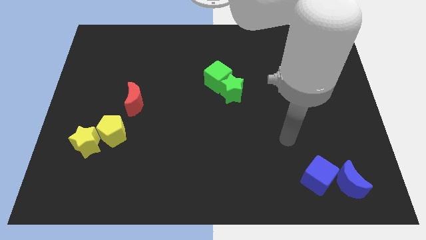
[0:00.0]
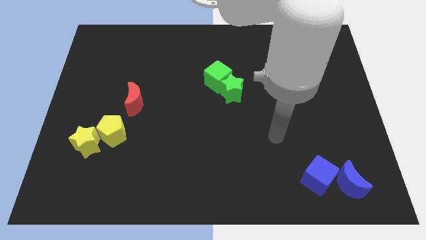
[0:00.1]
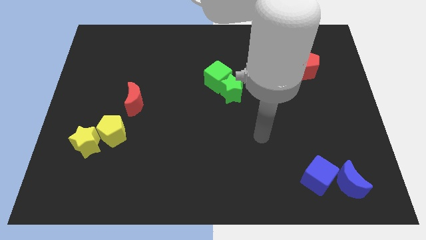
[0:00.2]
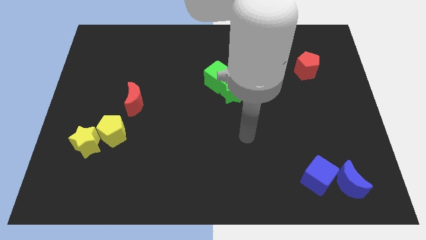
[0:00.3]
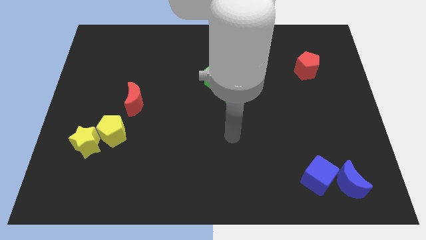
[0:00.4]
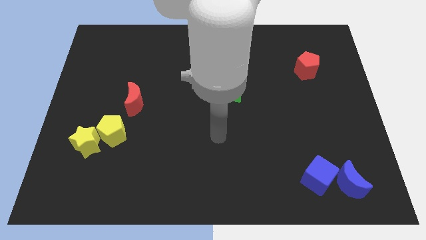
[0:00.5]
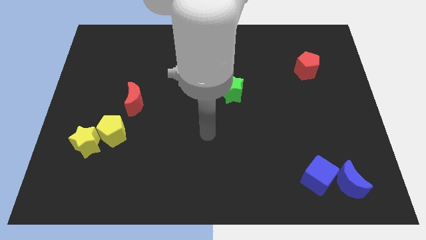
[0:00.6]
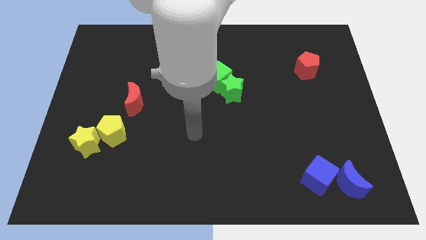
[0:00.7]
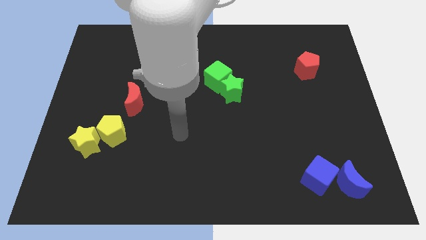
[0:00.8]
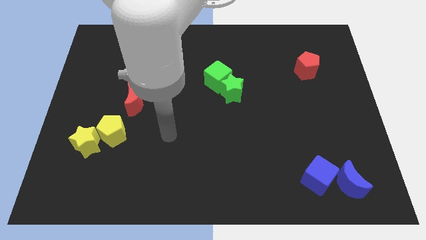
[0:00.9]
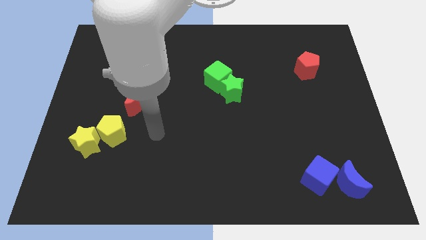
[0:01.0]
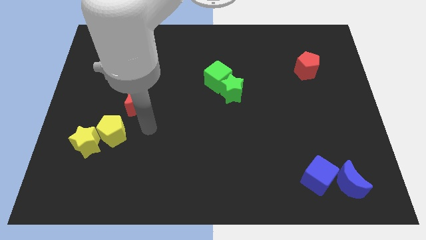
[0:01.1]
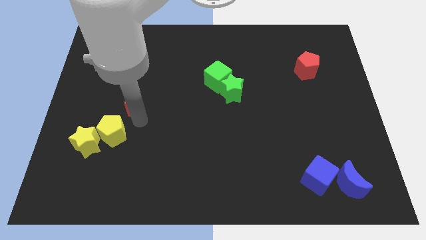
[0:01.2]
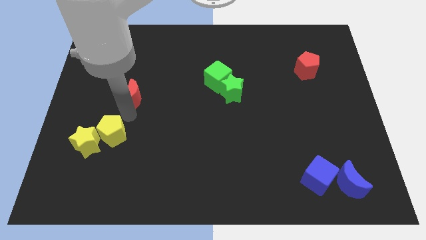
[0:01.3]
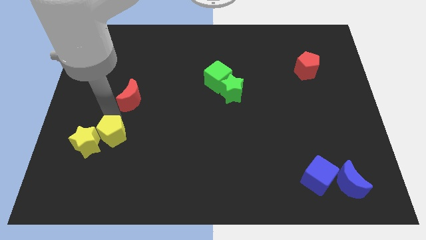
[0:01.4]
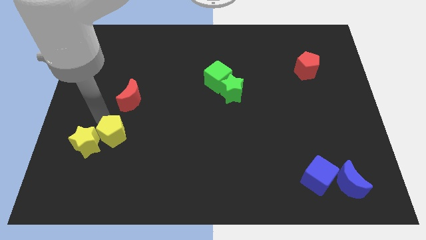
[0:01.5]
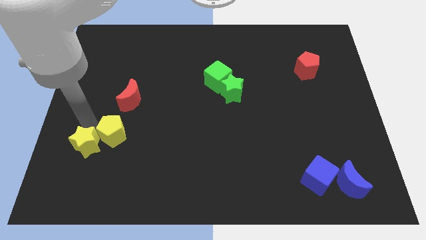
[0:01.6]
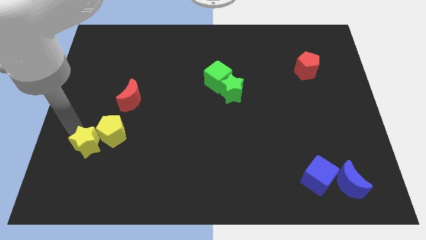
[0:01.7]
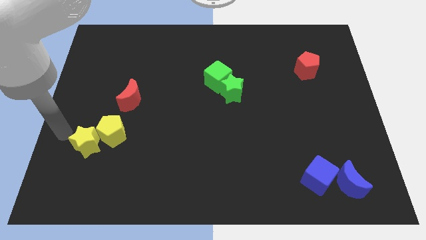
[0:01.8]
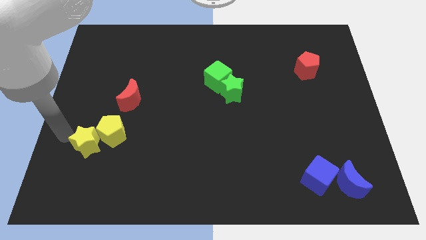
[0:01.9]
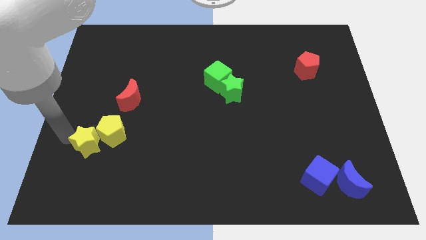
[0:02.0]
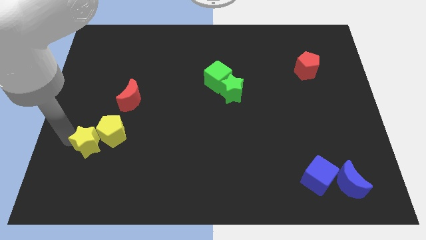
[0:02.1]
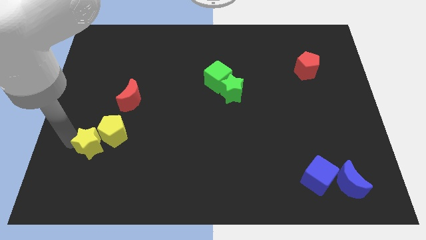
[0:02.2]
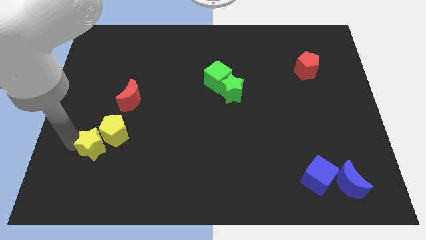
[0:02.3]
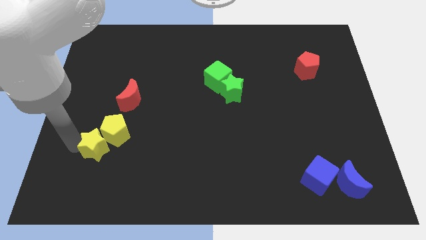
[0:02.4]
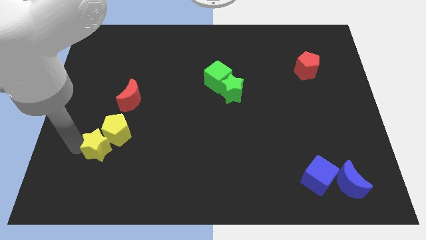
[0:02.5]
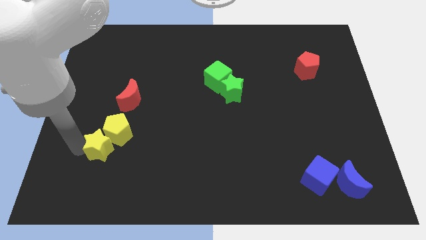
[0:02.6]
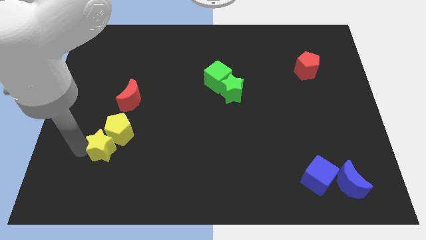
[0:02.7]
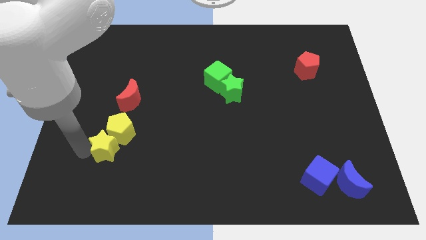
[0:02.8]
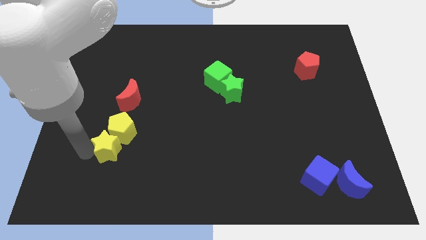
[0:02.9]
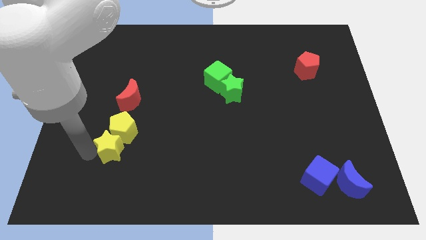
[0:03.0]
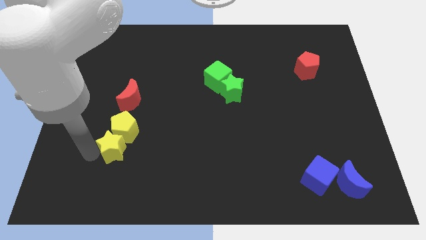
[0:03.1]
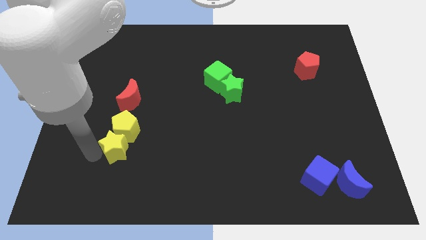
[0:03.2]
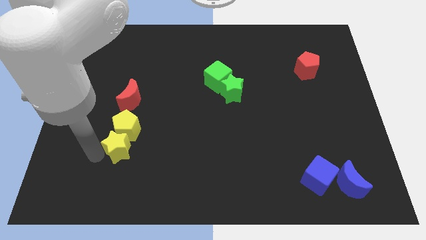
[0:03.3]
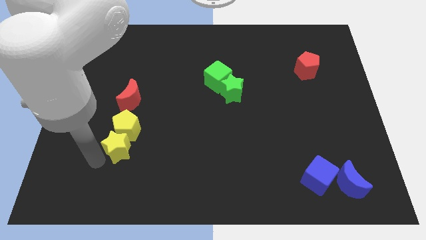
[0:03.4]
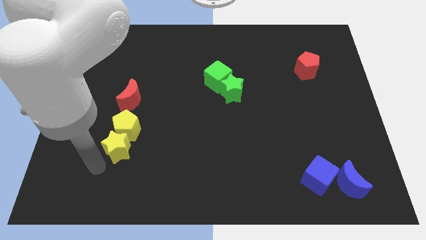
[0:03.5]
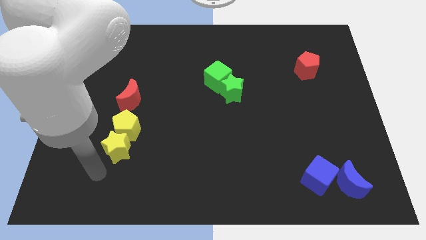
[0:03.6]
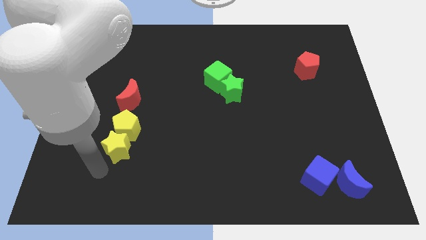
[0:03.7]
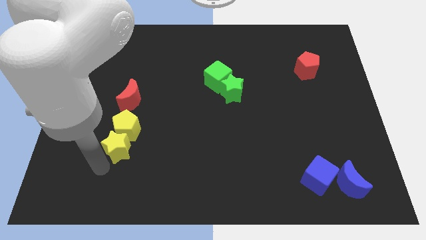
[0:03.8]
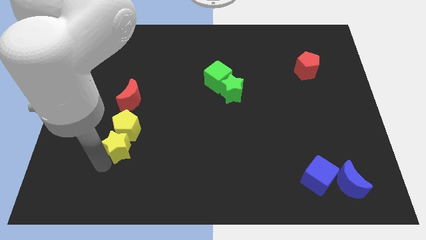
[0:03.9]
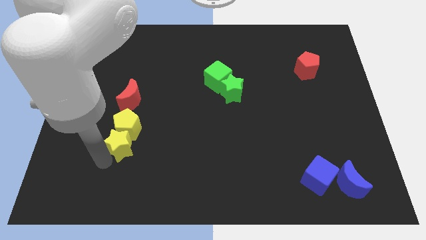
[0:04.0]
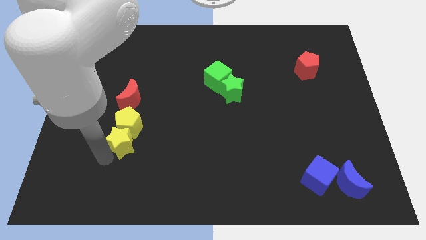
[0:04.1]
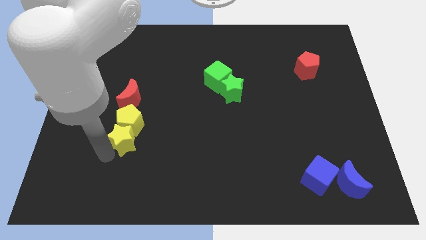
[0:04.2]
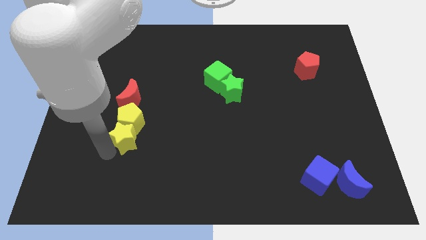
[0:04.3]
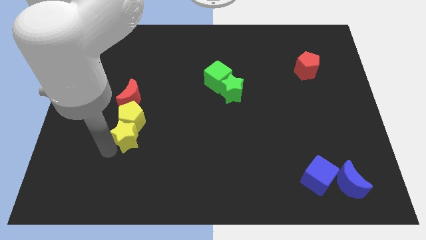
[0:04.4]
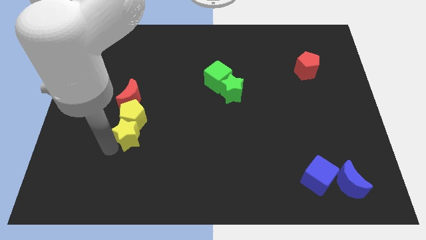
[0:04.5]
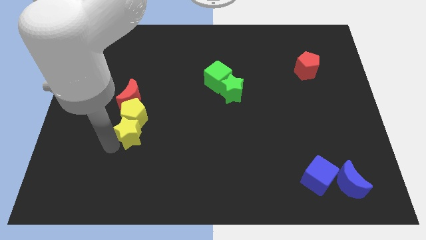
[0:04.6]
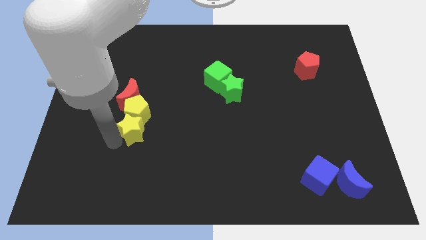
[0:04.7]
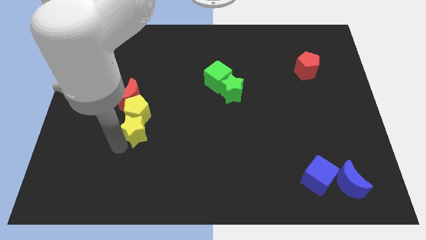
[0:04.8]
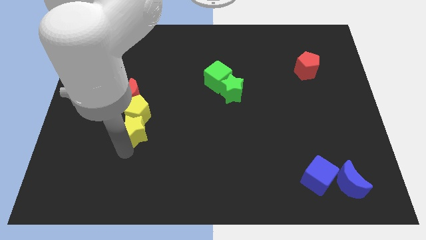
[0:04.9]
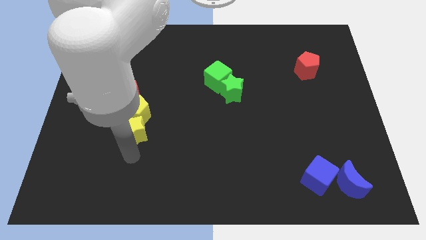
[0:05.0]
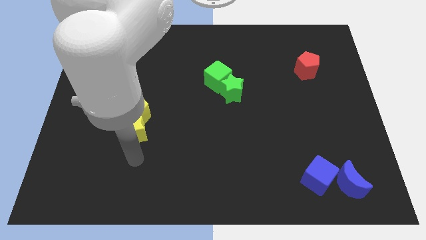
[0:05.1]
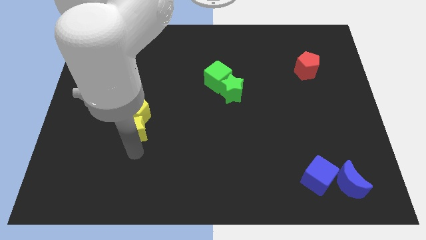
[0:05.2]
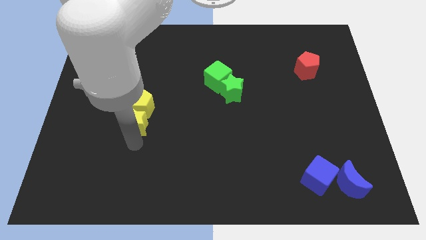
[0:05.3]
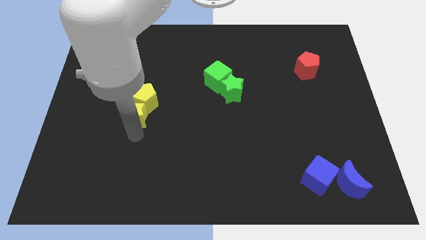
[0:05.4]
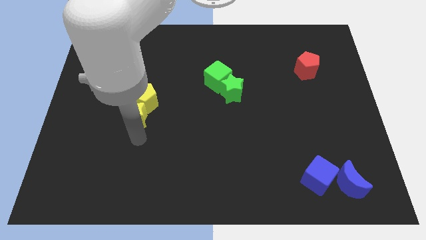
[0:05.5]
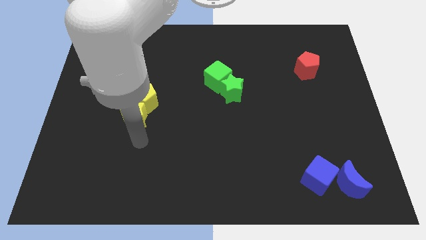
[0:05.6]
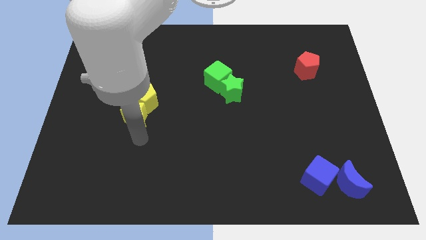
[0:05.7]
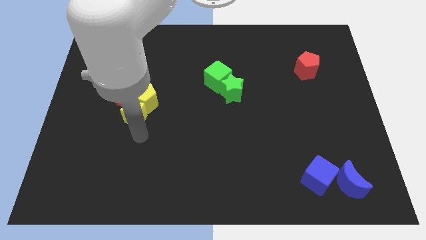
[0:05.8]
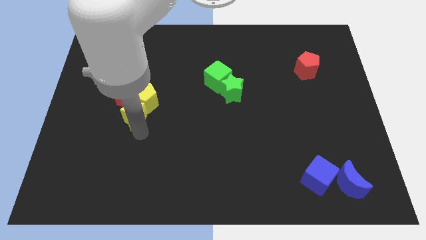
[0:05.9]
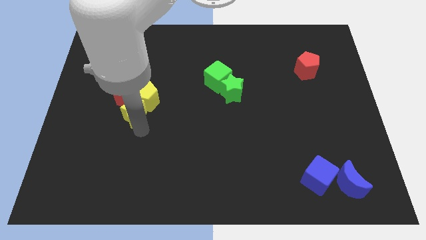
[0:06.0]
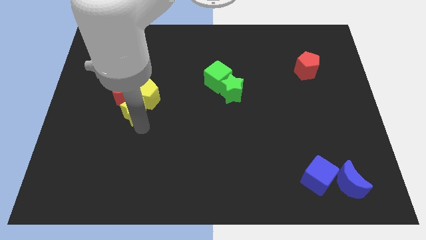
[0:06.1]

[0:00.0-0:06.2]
slide the yellow star to the red moon

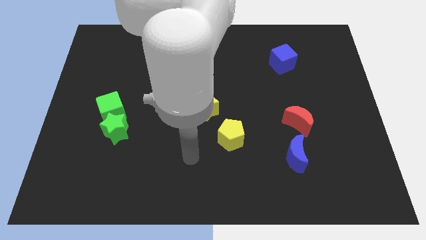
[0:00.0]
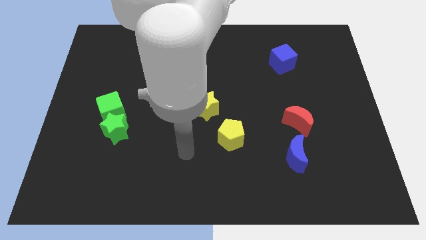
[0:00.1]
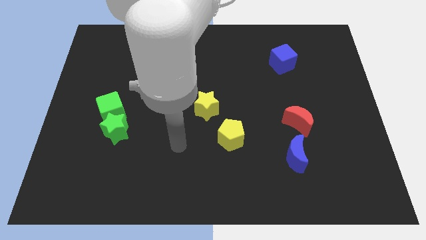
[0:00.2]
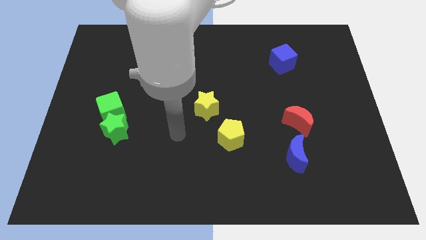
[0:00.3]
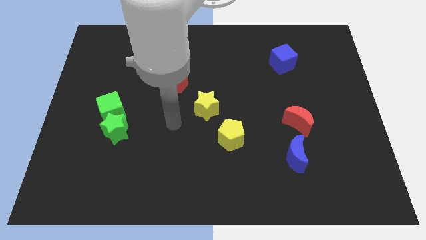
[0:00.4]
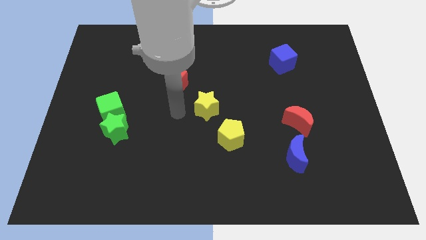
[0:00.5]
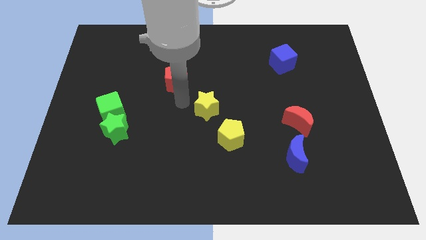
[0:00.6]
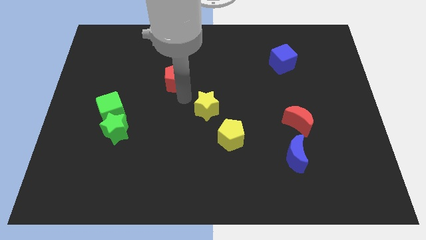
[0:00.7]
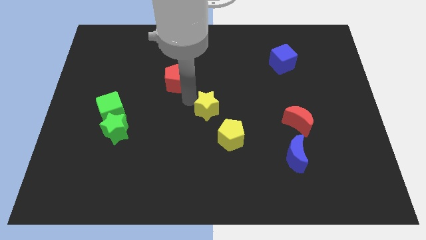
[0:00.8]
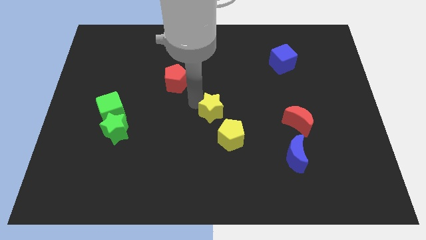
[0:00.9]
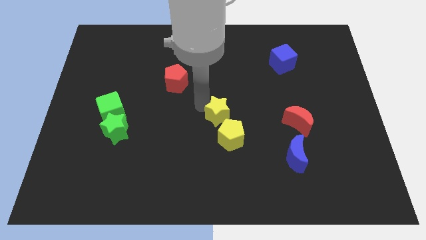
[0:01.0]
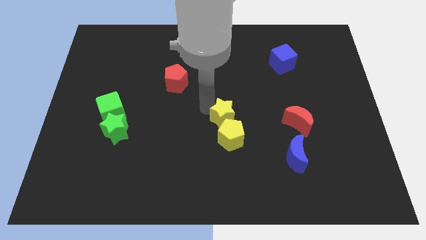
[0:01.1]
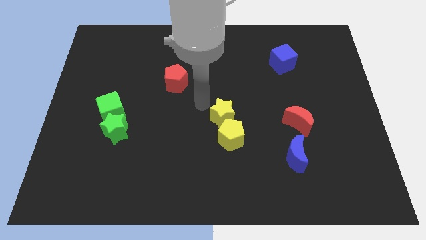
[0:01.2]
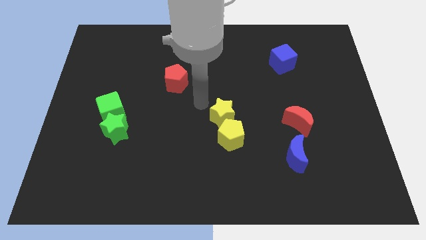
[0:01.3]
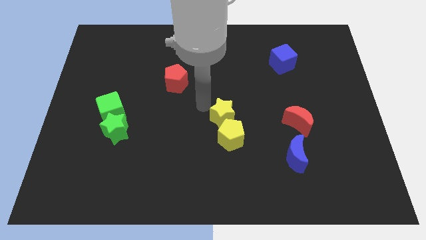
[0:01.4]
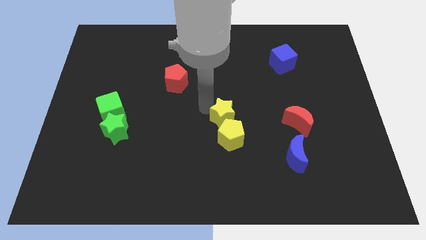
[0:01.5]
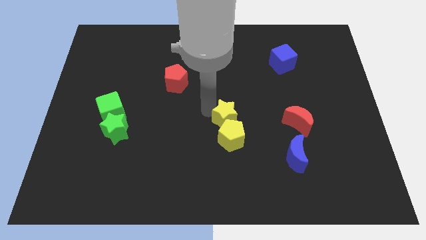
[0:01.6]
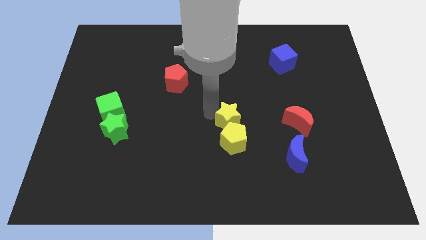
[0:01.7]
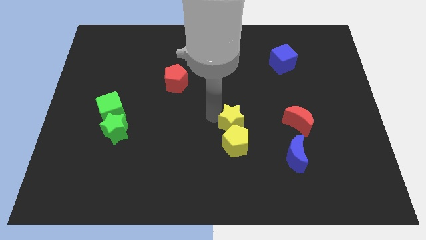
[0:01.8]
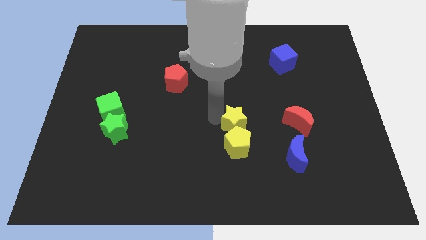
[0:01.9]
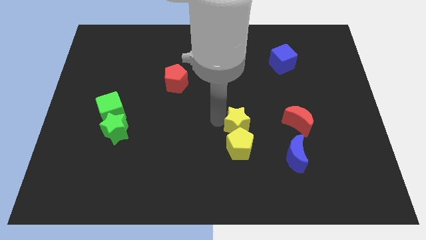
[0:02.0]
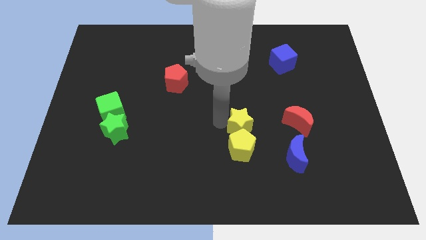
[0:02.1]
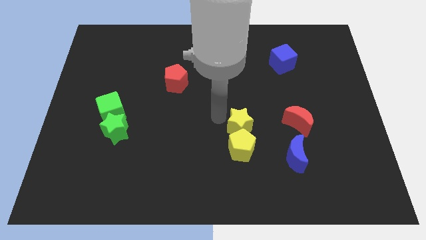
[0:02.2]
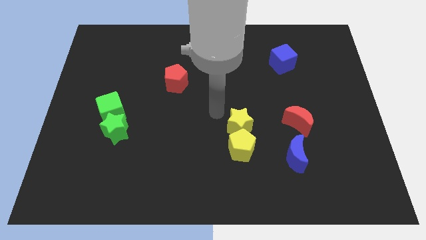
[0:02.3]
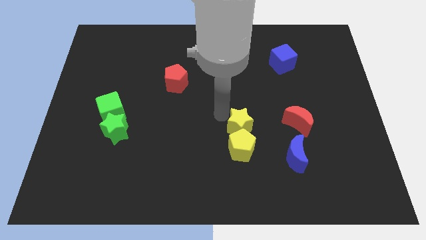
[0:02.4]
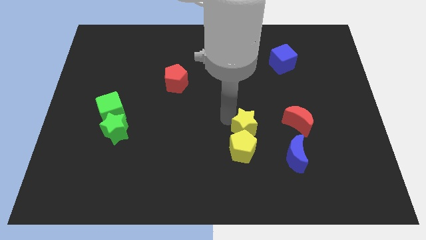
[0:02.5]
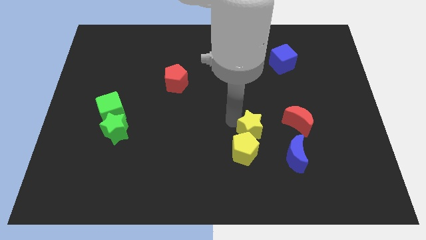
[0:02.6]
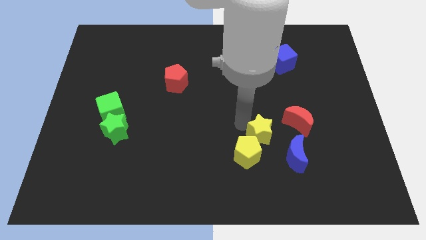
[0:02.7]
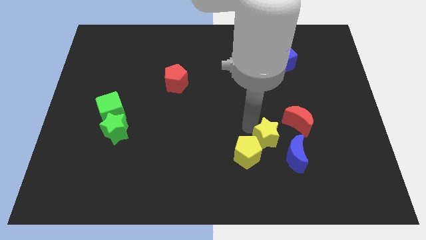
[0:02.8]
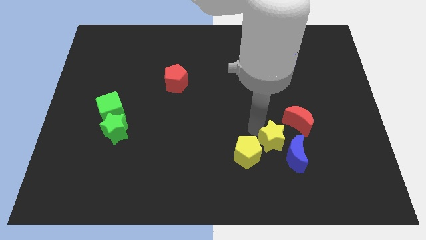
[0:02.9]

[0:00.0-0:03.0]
slide the yellow star next to the blue moon
